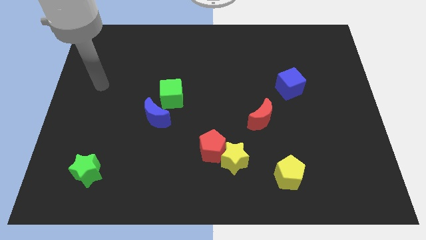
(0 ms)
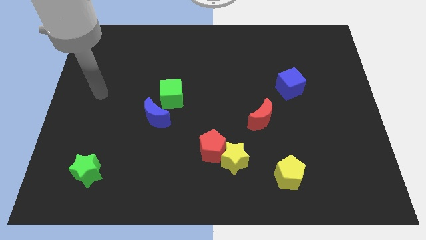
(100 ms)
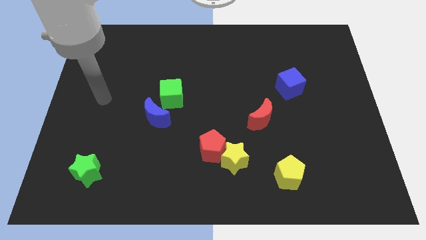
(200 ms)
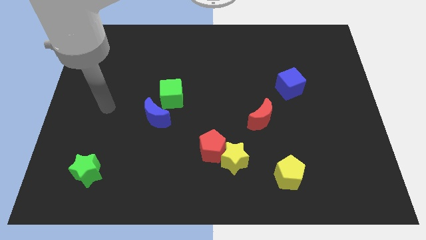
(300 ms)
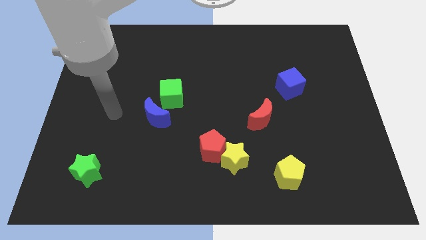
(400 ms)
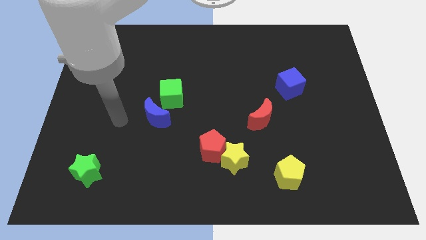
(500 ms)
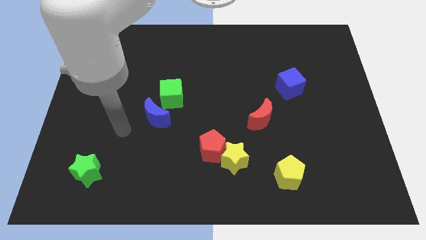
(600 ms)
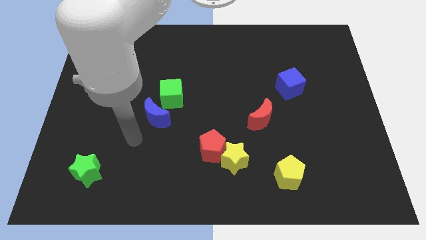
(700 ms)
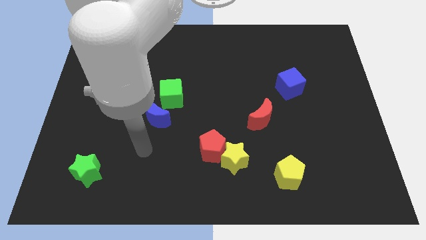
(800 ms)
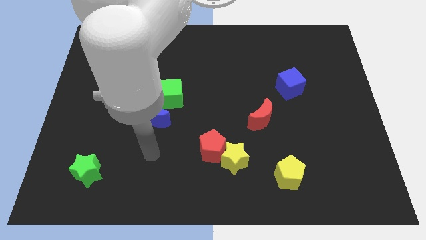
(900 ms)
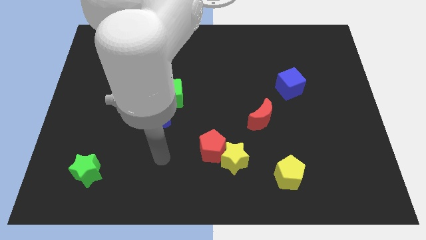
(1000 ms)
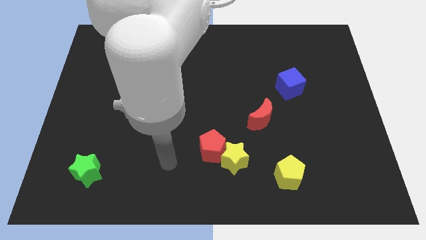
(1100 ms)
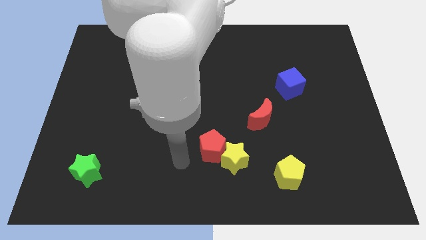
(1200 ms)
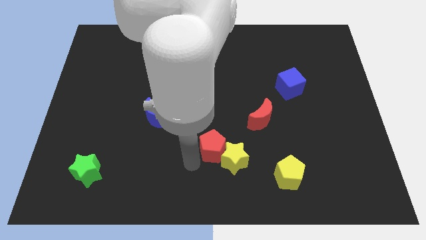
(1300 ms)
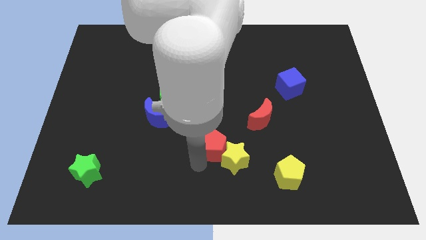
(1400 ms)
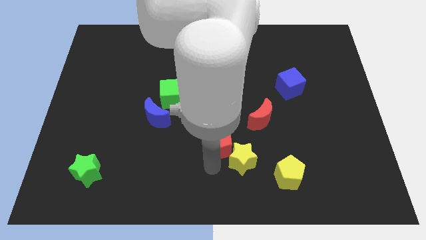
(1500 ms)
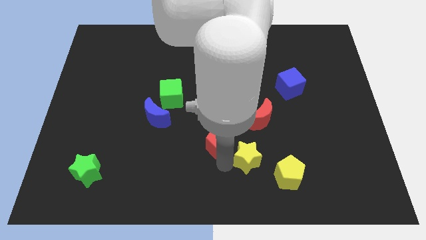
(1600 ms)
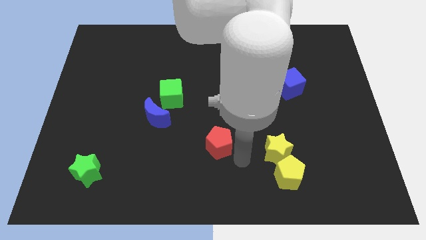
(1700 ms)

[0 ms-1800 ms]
separate the red pentagon from the yellow star

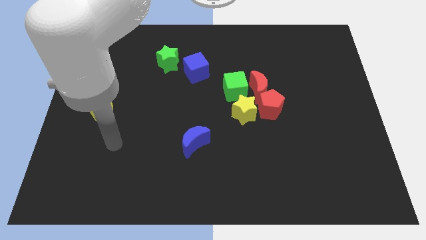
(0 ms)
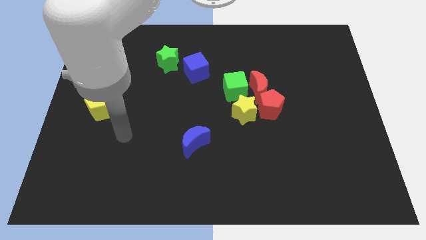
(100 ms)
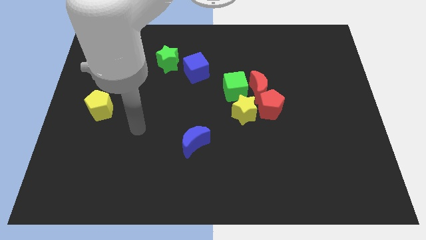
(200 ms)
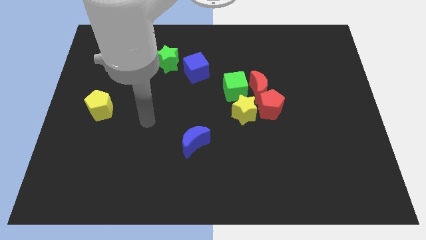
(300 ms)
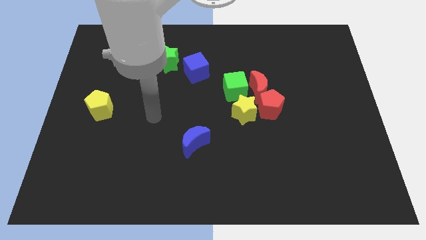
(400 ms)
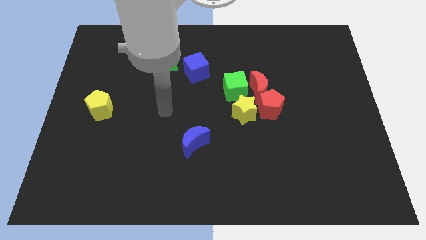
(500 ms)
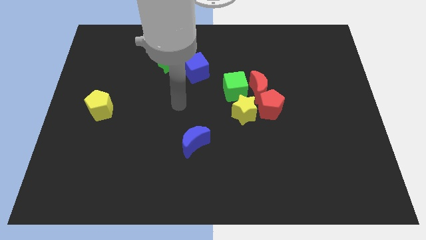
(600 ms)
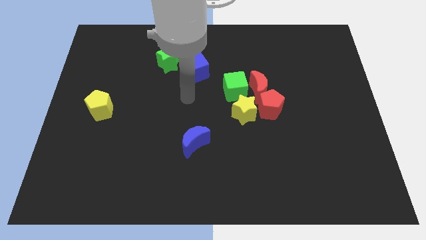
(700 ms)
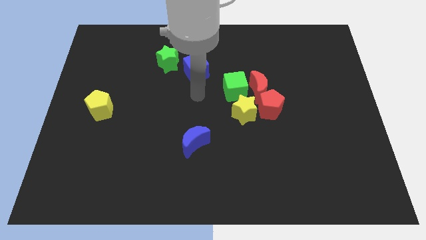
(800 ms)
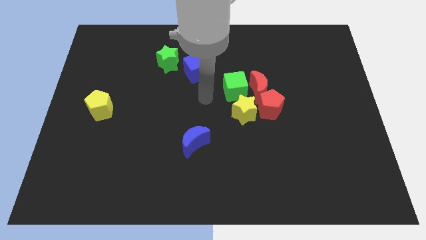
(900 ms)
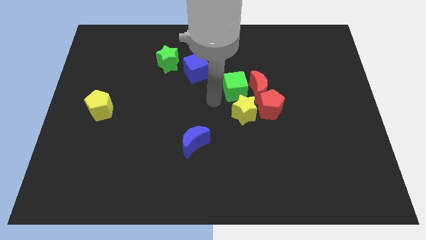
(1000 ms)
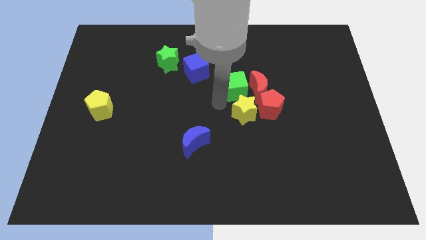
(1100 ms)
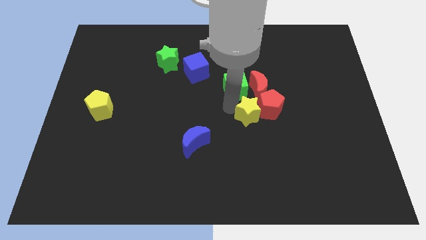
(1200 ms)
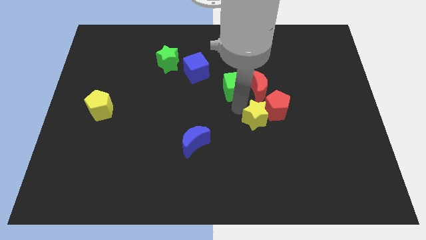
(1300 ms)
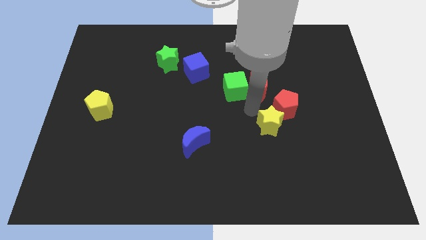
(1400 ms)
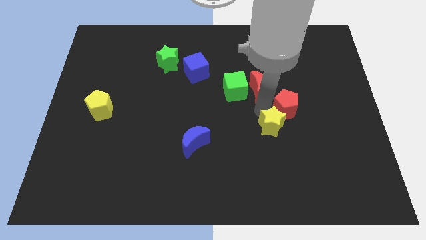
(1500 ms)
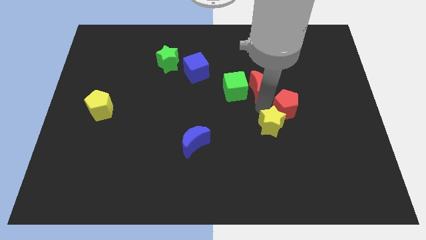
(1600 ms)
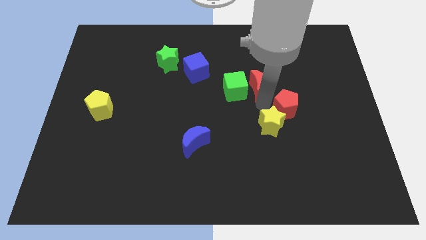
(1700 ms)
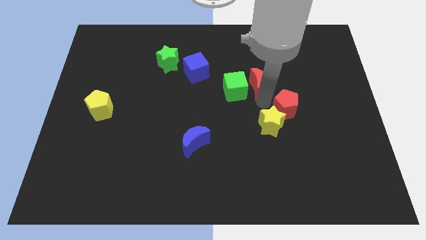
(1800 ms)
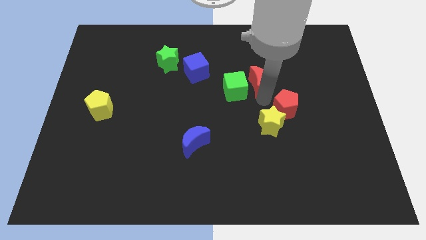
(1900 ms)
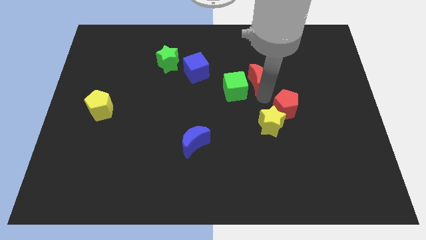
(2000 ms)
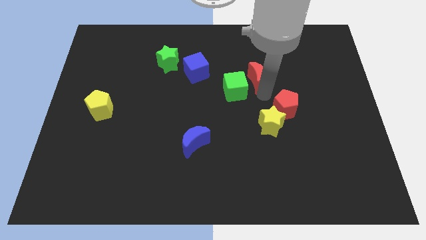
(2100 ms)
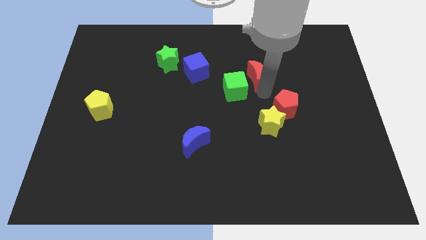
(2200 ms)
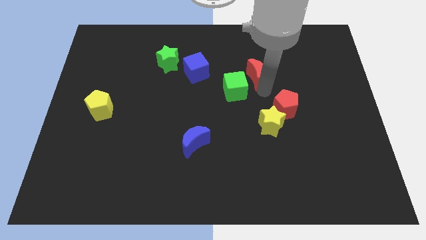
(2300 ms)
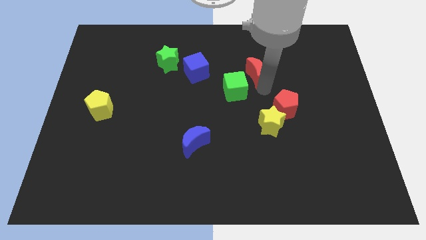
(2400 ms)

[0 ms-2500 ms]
move the red moon away from the red pentagon, green cube, and yellow star

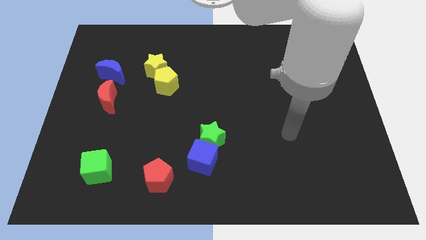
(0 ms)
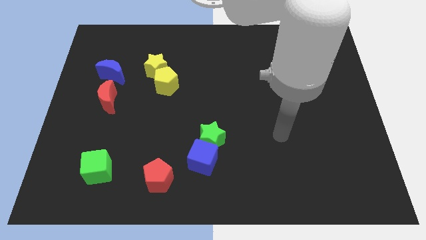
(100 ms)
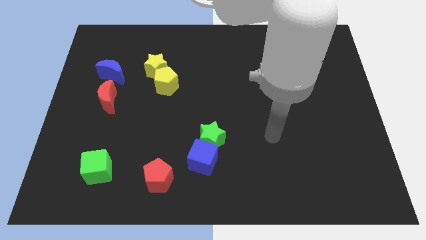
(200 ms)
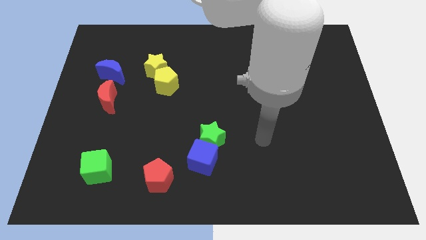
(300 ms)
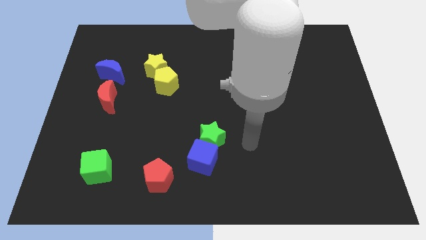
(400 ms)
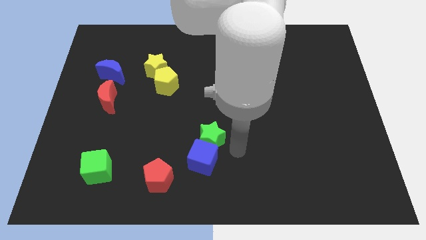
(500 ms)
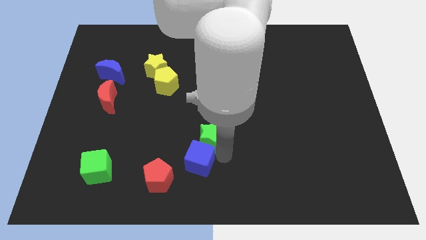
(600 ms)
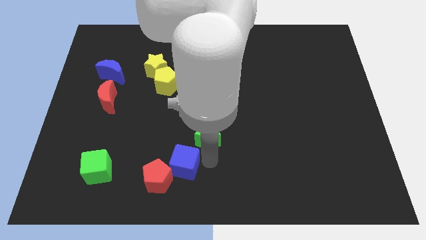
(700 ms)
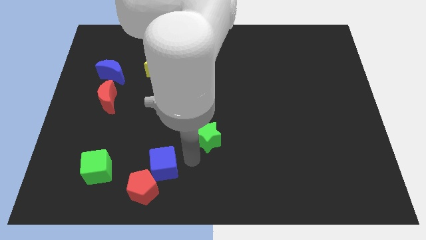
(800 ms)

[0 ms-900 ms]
pull the green star apart from the blue cube

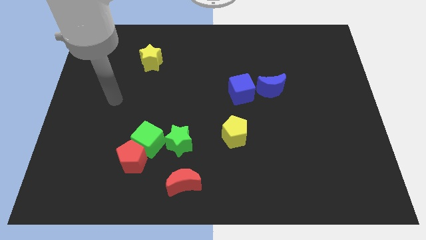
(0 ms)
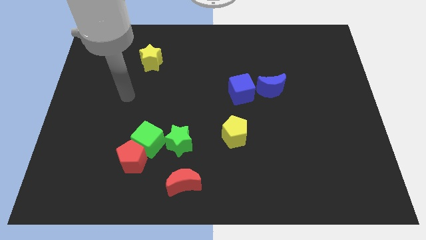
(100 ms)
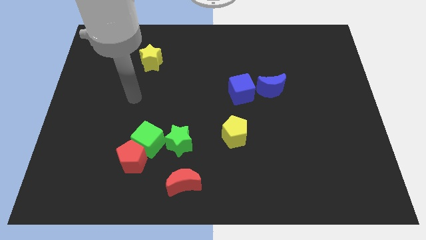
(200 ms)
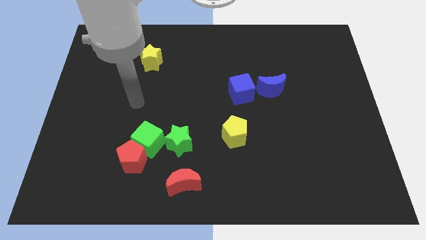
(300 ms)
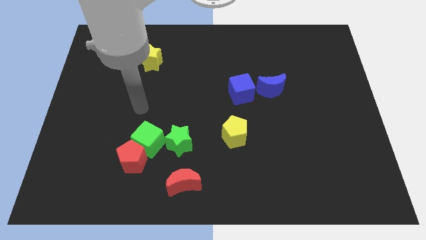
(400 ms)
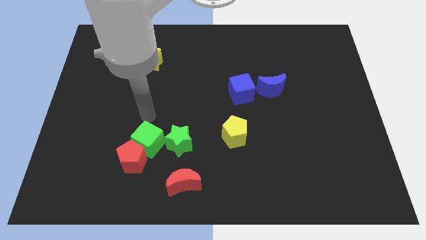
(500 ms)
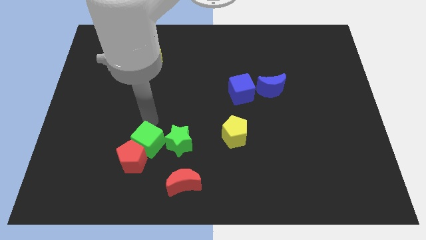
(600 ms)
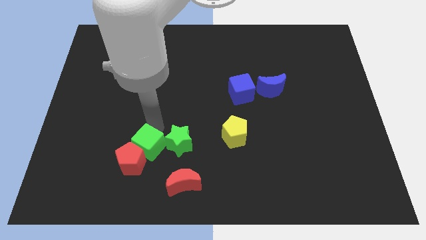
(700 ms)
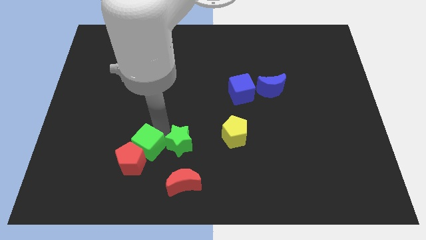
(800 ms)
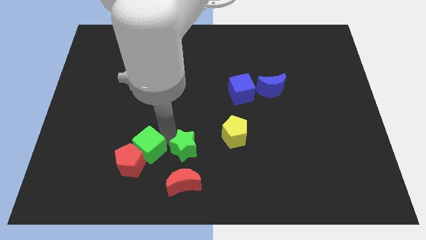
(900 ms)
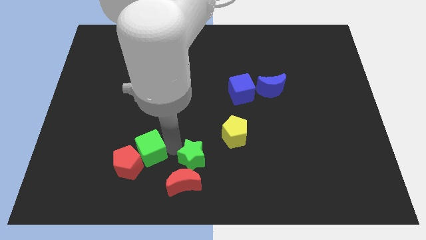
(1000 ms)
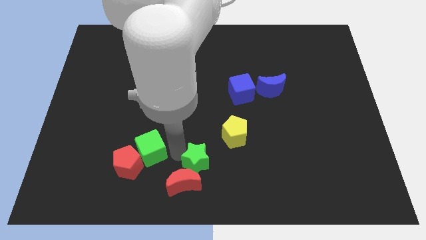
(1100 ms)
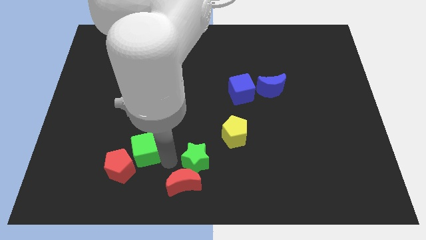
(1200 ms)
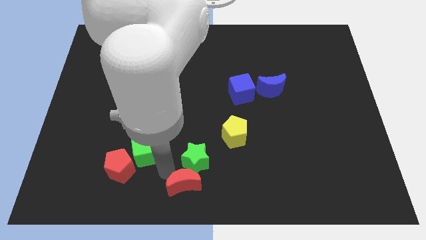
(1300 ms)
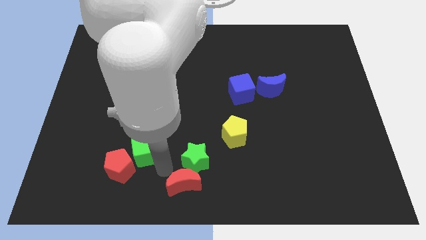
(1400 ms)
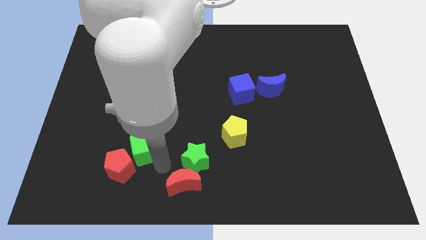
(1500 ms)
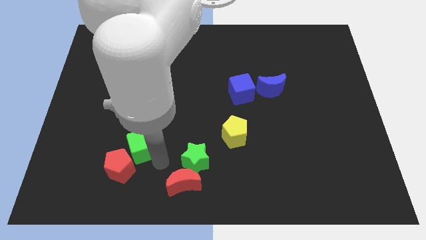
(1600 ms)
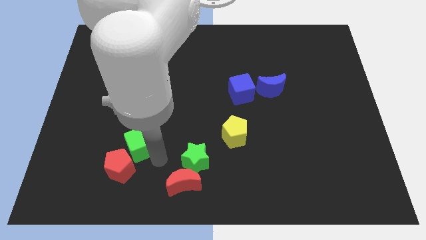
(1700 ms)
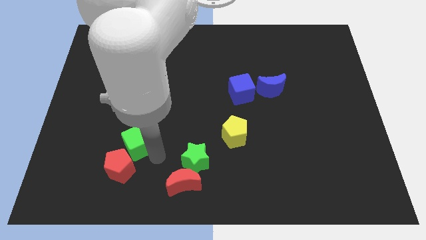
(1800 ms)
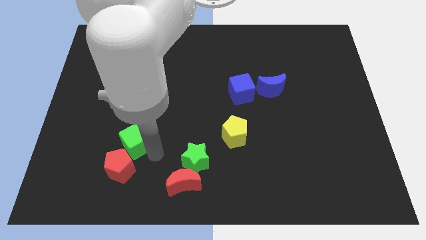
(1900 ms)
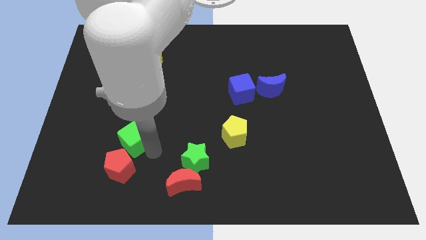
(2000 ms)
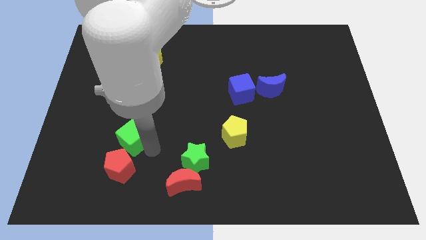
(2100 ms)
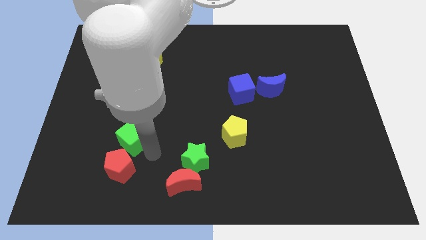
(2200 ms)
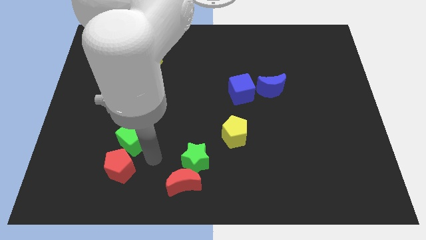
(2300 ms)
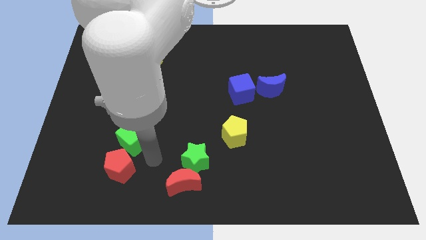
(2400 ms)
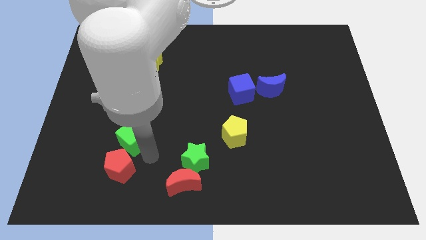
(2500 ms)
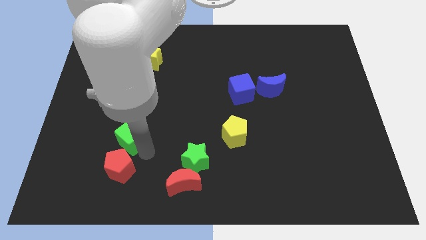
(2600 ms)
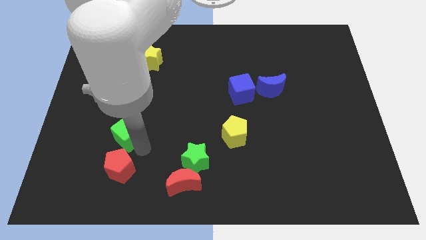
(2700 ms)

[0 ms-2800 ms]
move the green cube away from the red pentagon and green star

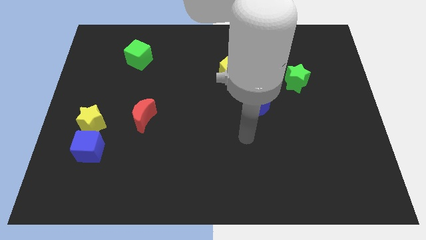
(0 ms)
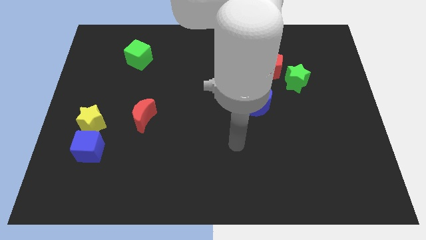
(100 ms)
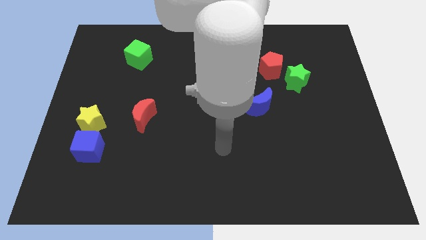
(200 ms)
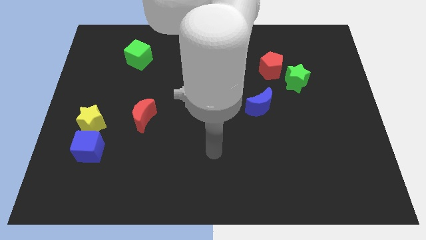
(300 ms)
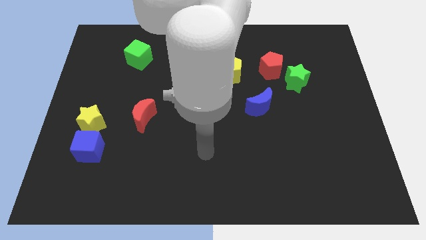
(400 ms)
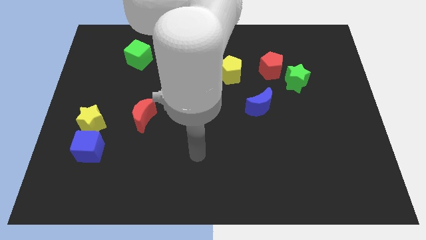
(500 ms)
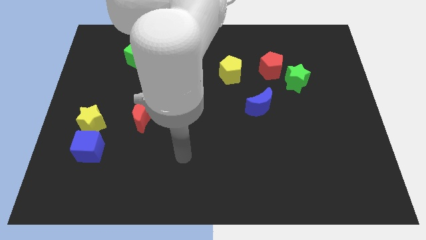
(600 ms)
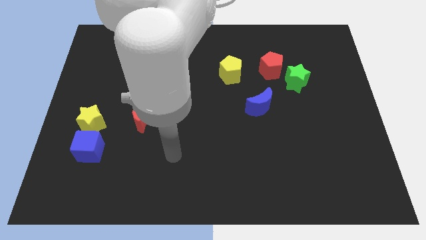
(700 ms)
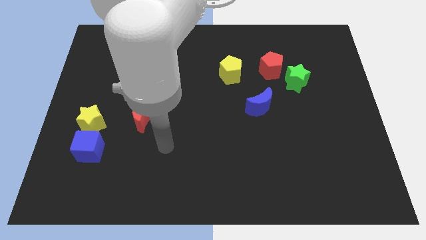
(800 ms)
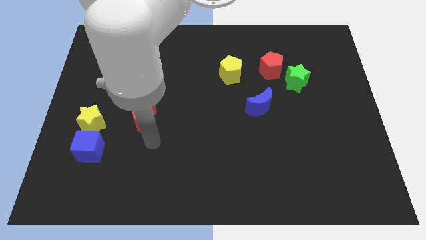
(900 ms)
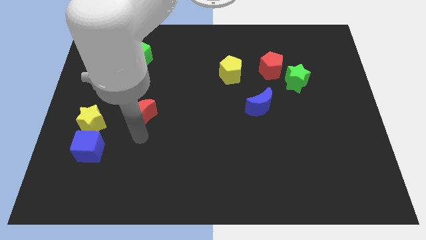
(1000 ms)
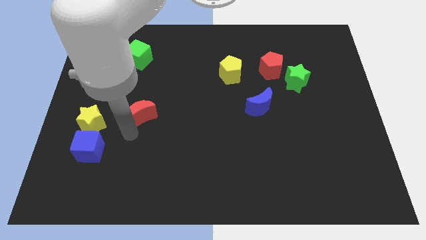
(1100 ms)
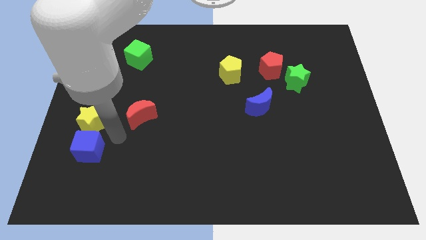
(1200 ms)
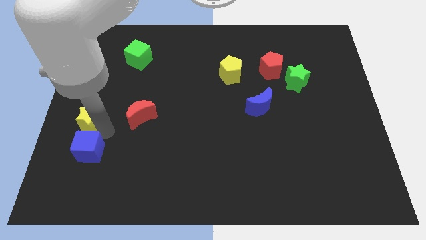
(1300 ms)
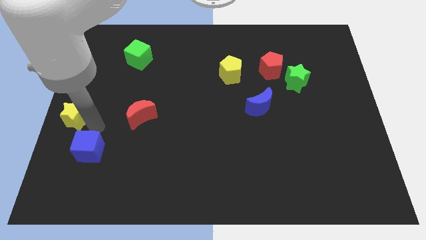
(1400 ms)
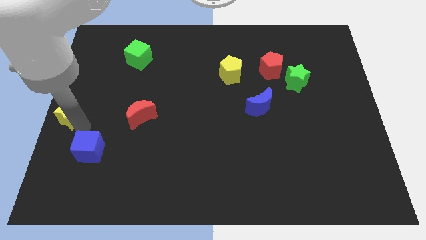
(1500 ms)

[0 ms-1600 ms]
pull the blue cube apart from the yellow star
